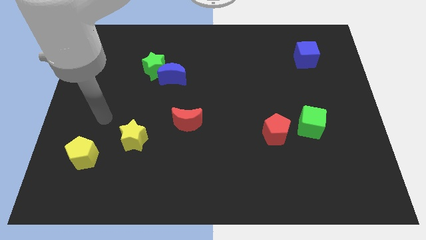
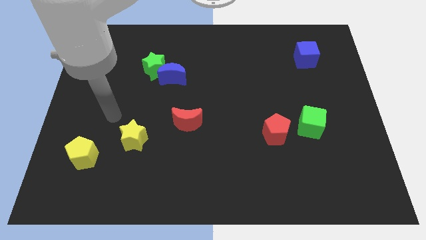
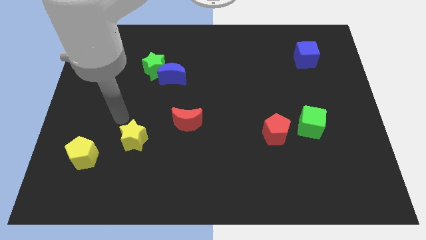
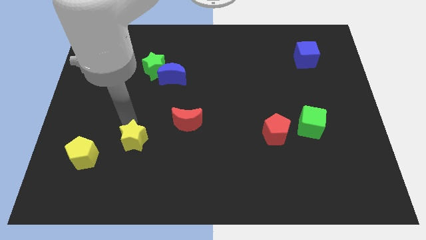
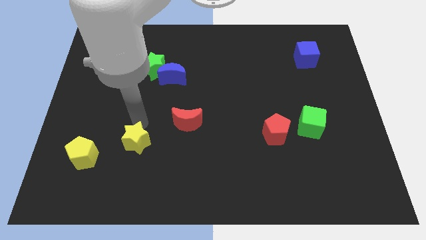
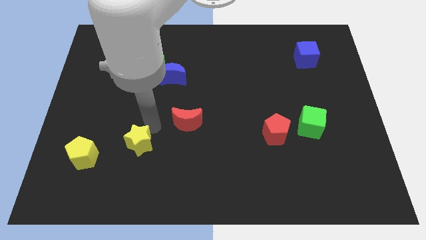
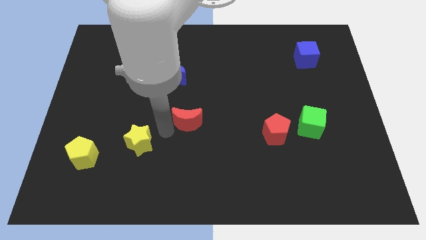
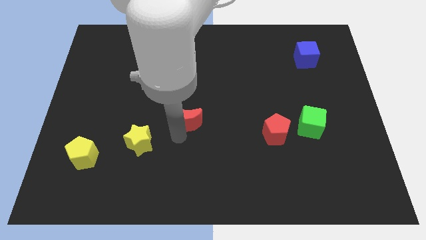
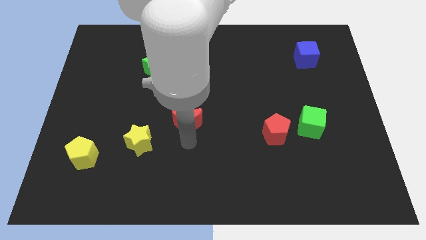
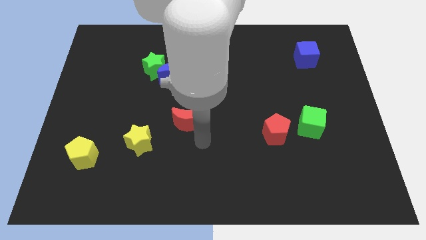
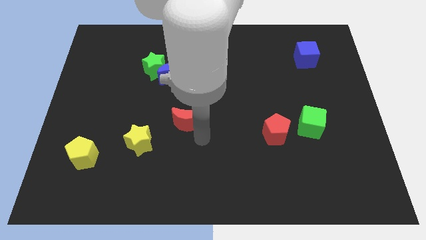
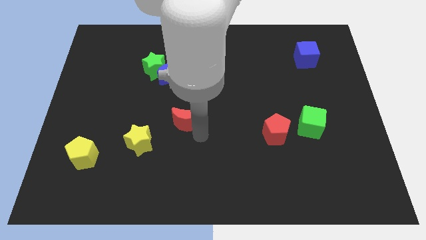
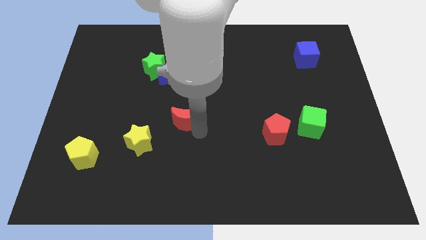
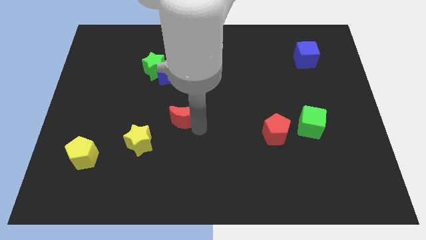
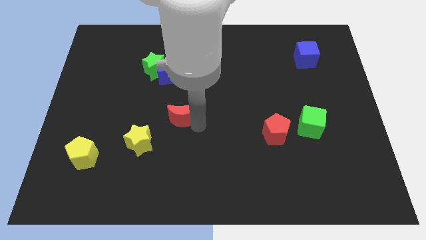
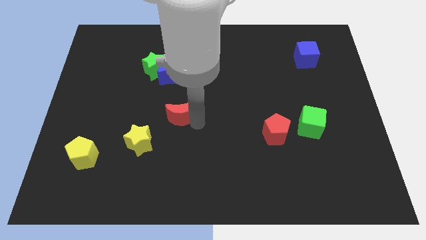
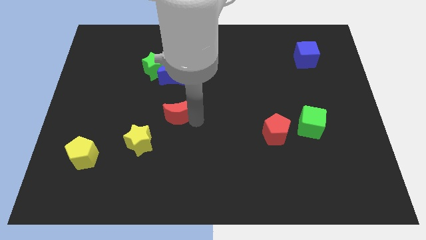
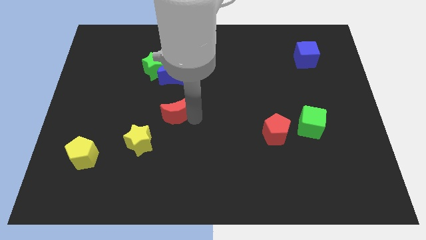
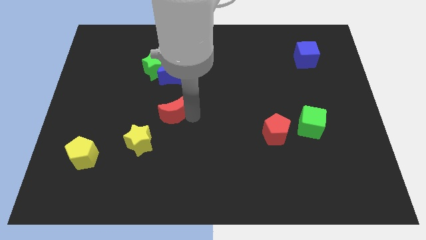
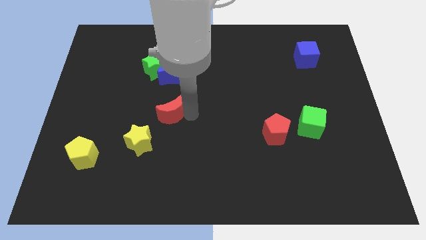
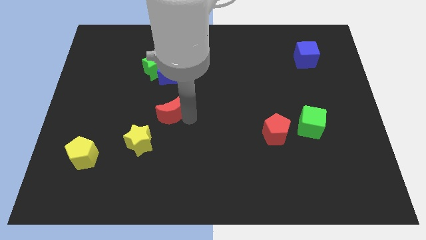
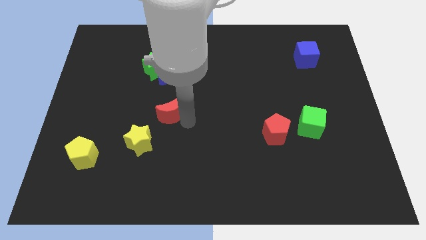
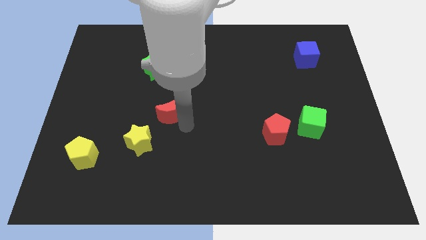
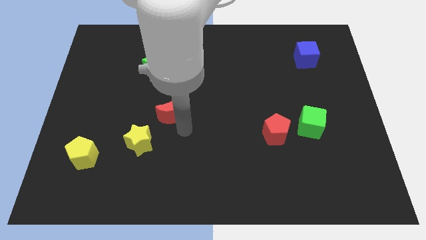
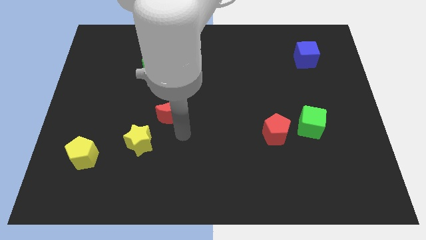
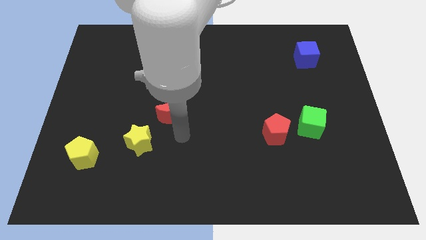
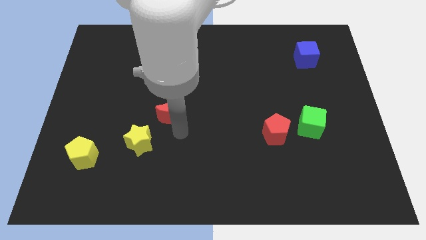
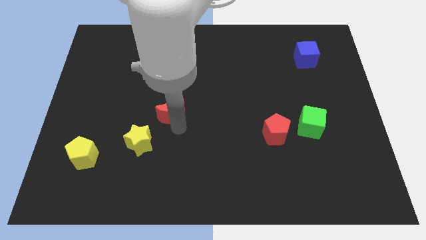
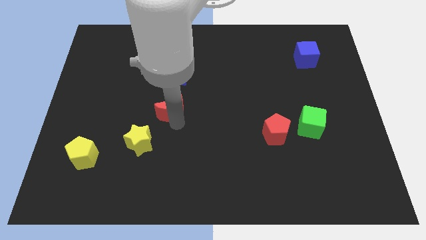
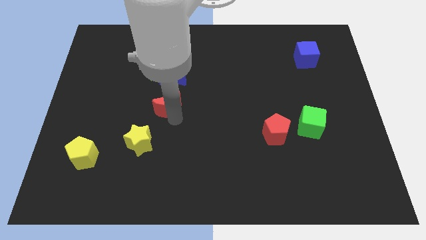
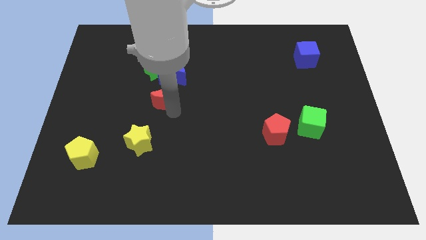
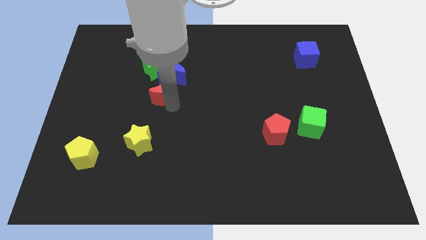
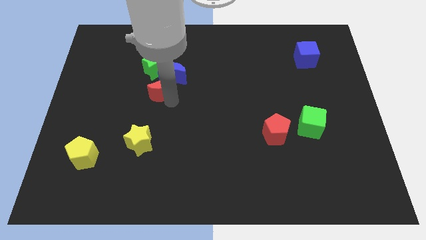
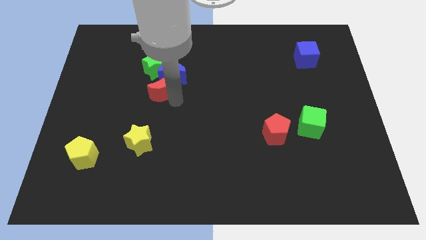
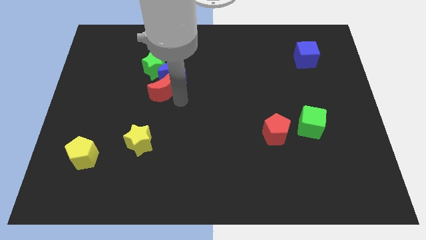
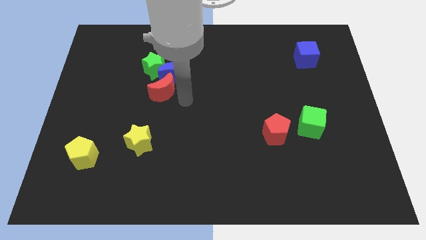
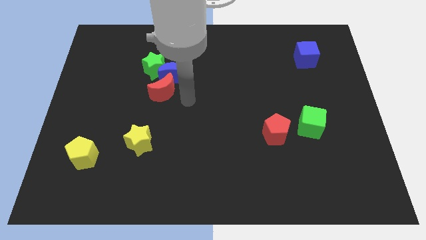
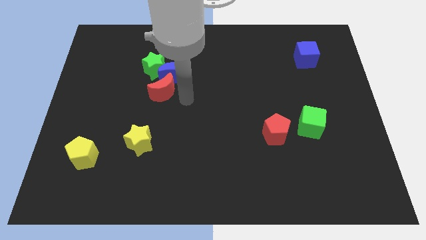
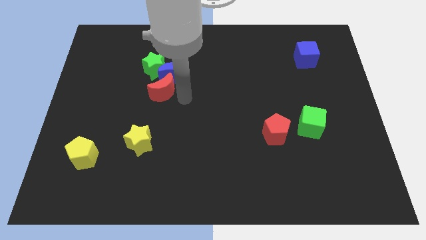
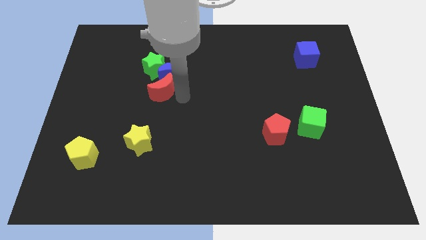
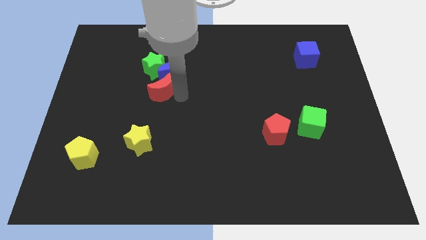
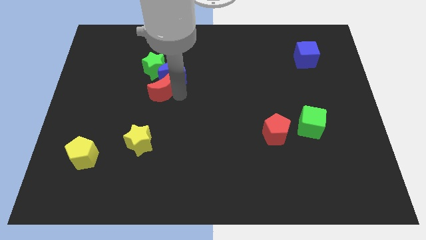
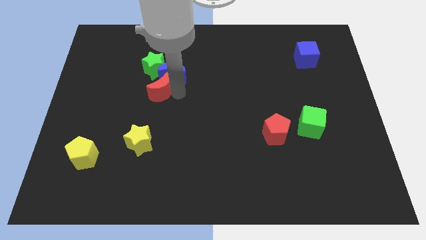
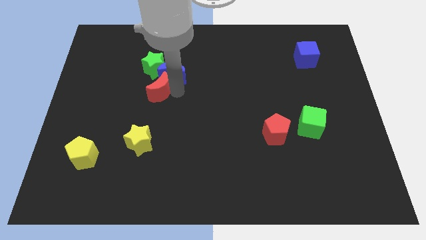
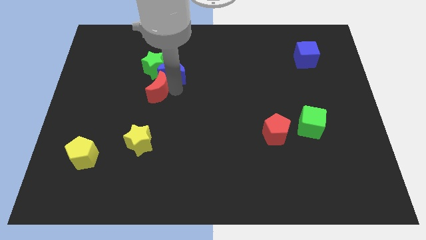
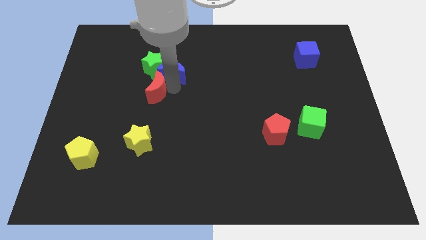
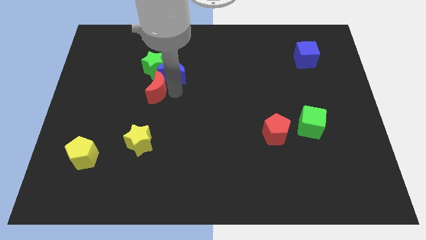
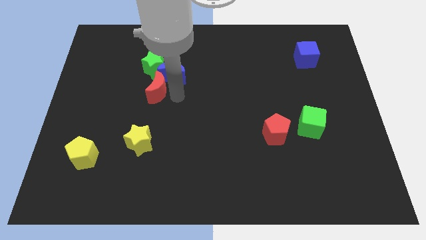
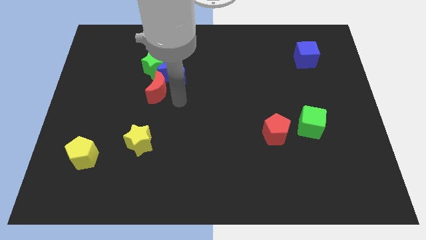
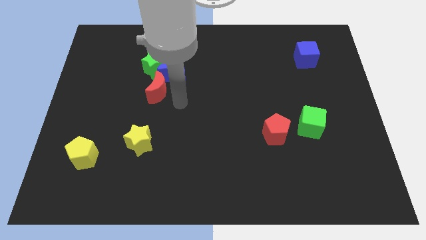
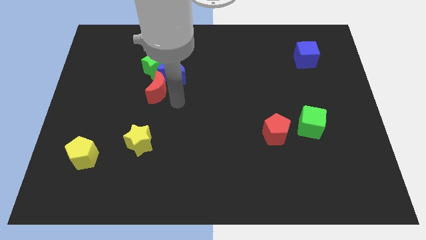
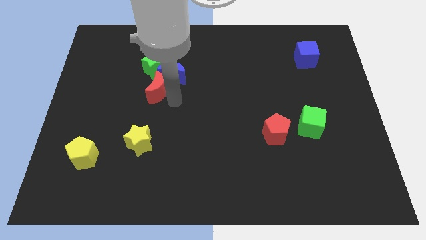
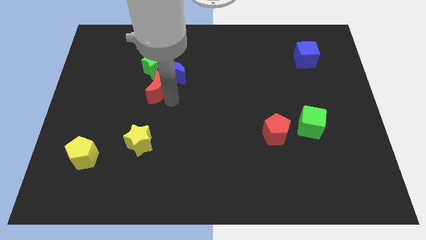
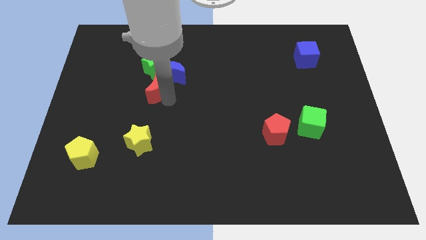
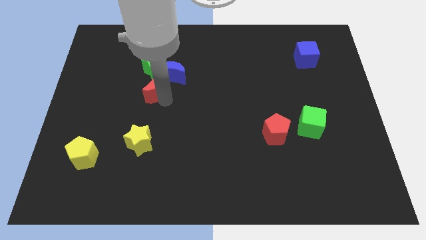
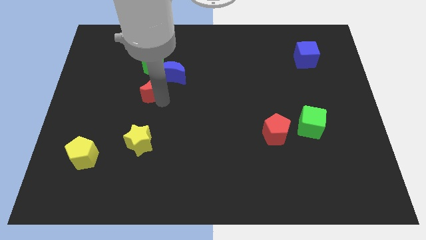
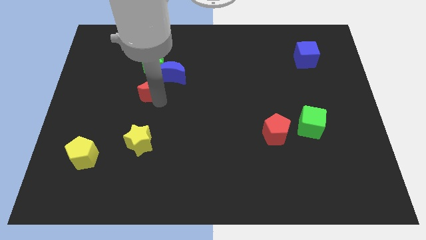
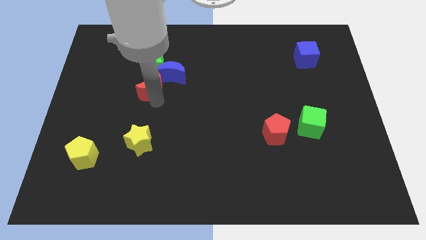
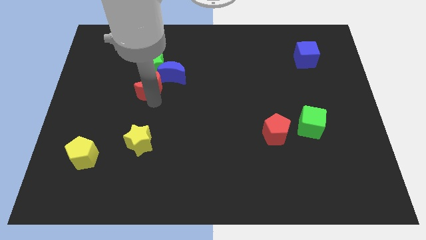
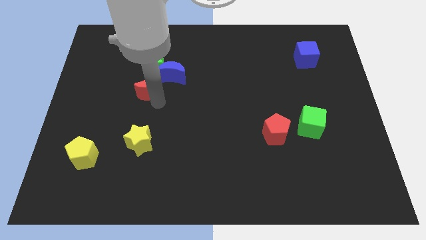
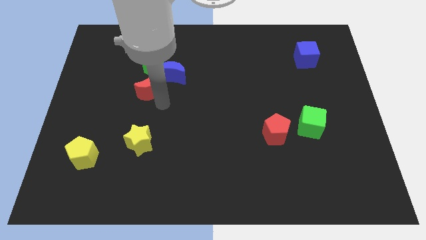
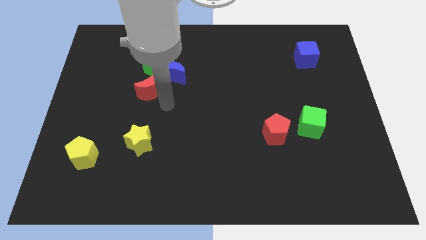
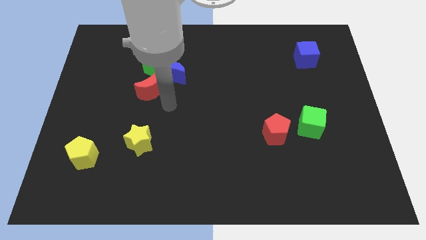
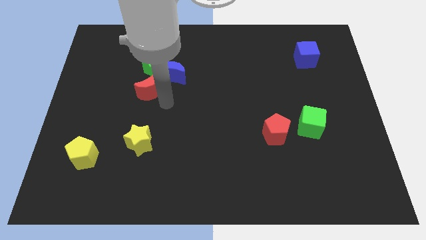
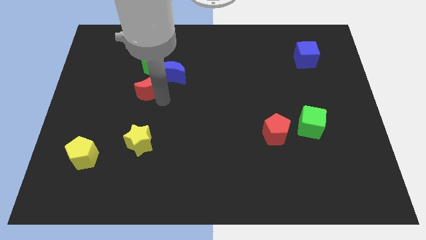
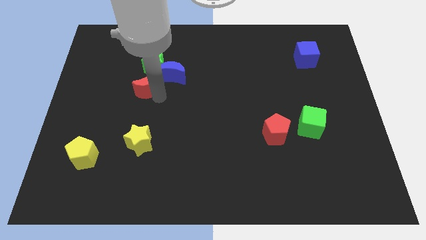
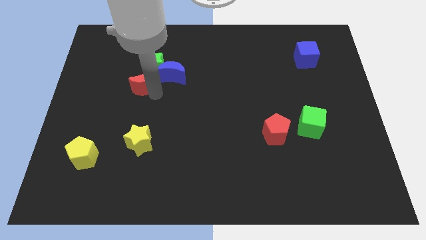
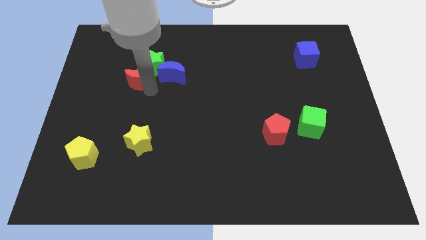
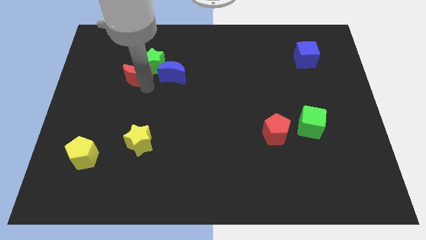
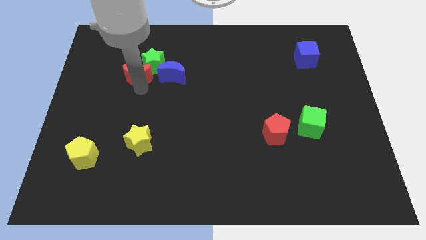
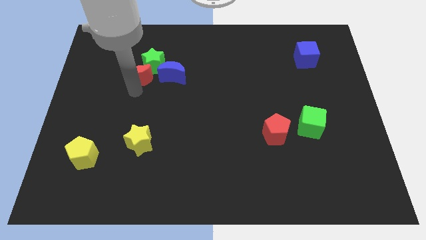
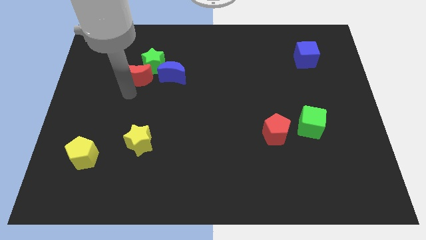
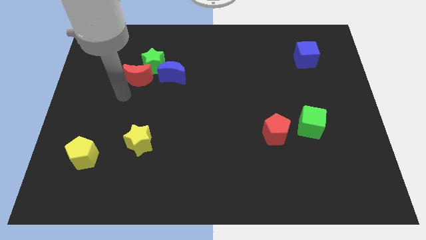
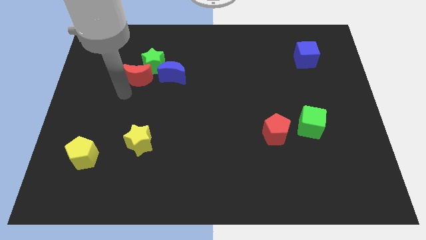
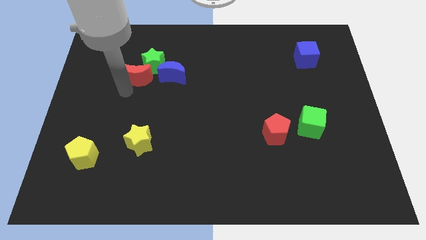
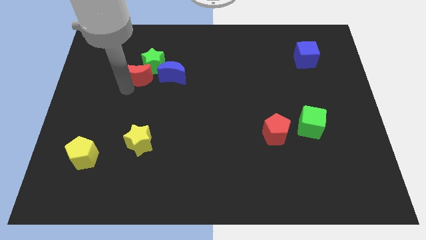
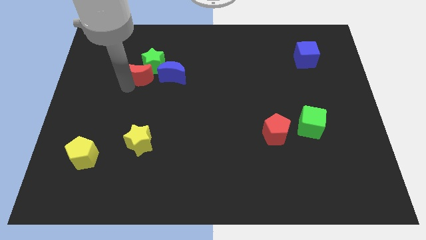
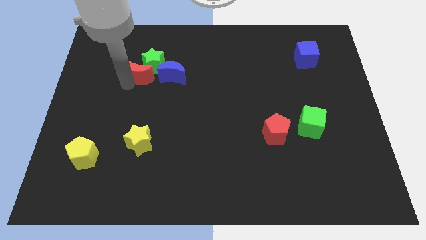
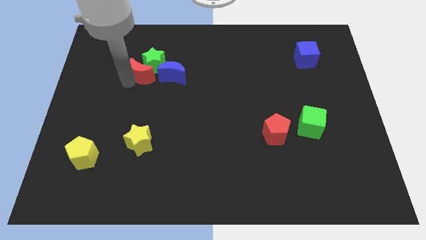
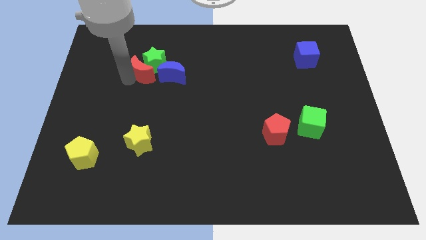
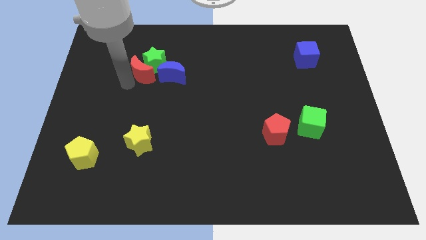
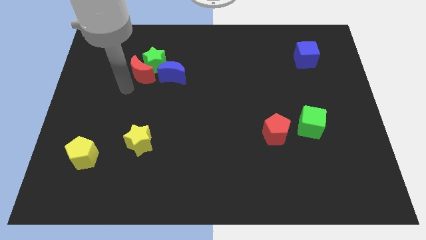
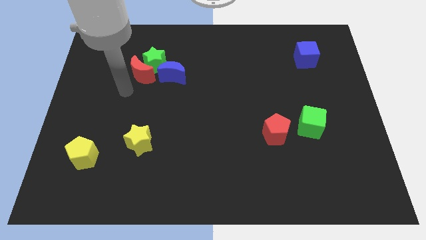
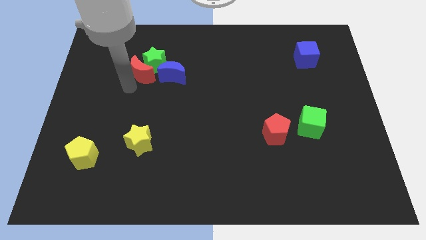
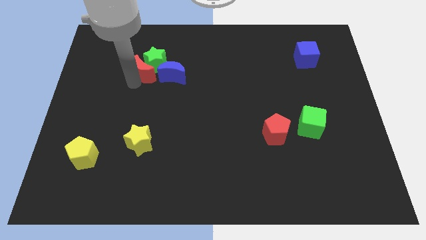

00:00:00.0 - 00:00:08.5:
push the red moon to the top left side of the blue moon
